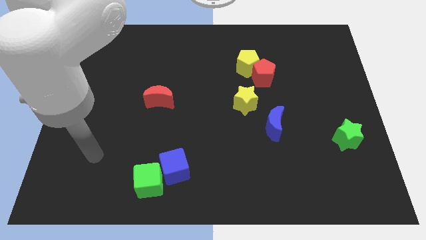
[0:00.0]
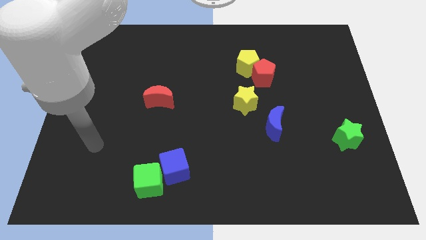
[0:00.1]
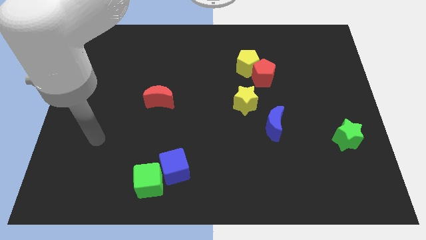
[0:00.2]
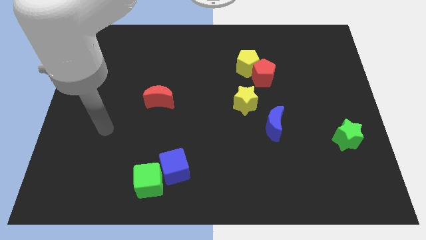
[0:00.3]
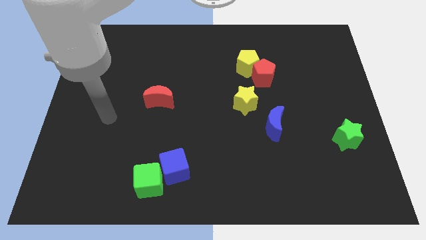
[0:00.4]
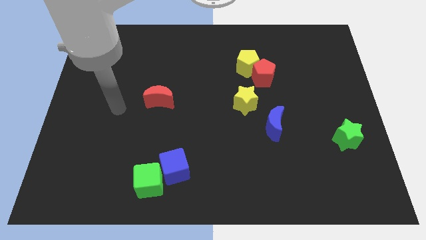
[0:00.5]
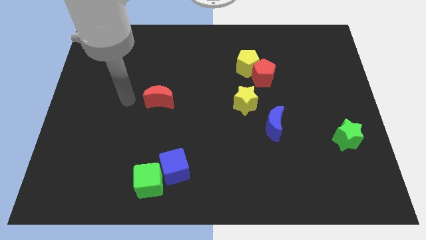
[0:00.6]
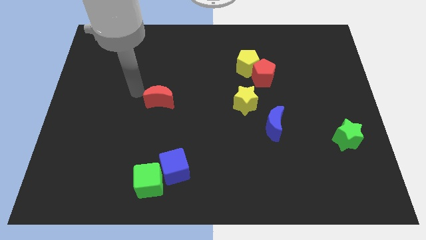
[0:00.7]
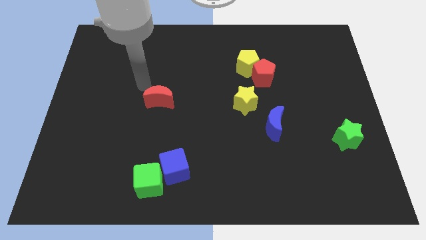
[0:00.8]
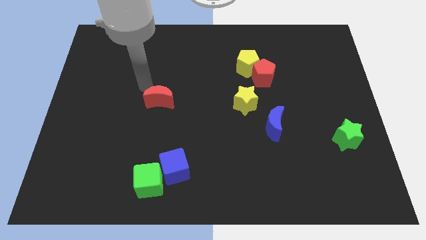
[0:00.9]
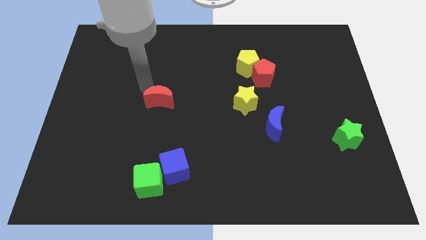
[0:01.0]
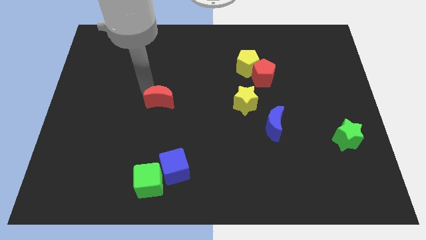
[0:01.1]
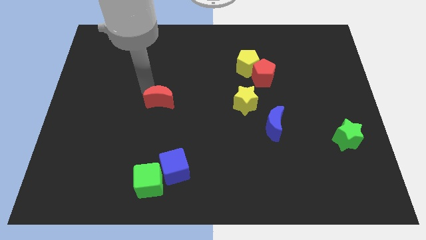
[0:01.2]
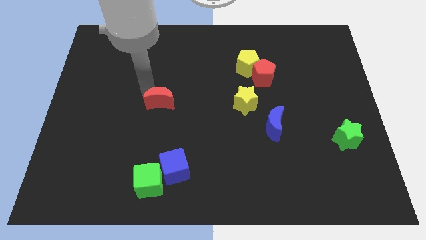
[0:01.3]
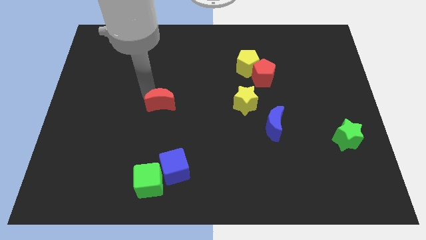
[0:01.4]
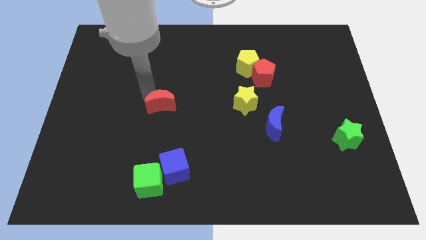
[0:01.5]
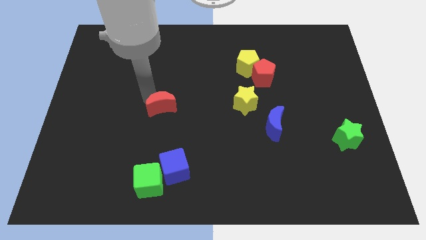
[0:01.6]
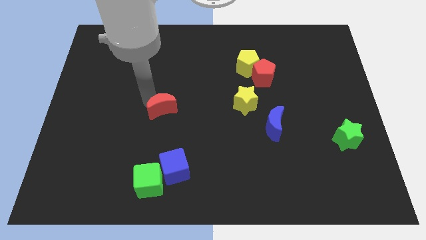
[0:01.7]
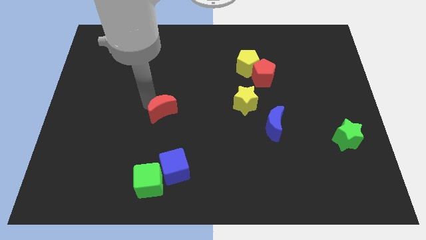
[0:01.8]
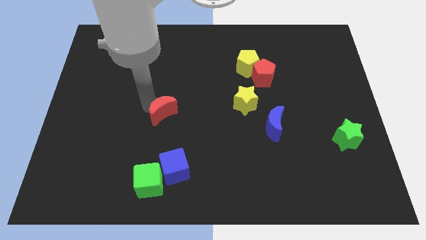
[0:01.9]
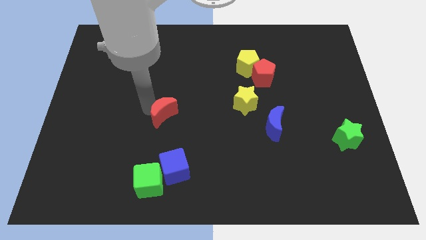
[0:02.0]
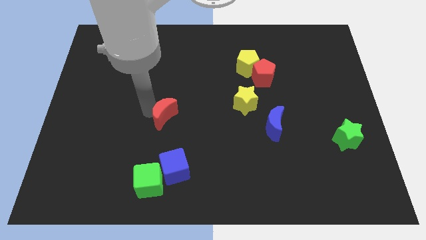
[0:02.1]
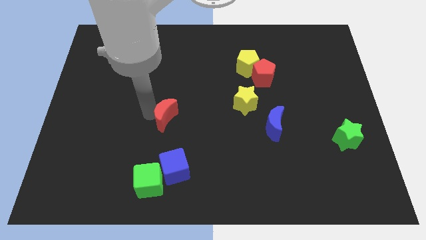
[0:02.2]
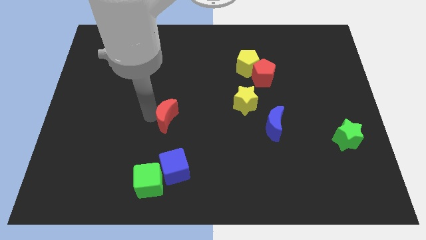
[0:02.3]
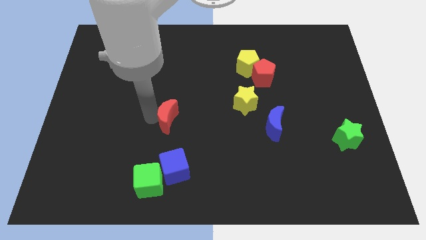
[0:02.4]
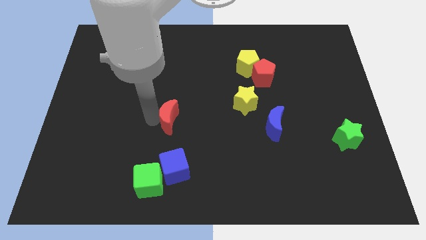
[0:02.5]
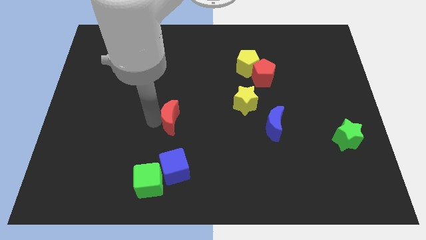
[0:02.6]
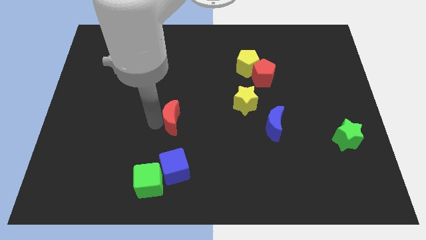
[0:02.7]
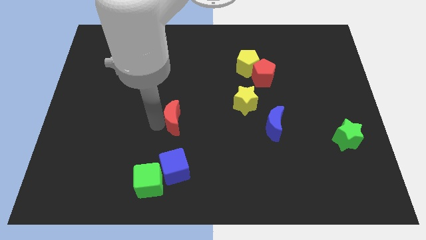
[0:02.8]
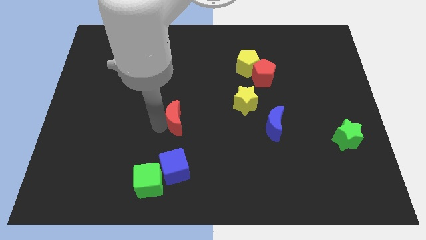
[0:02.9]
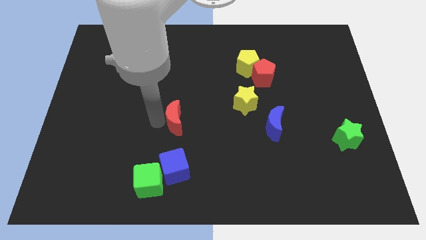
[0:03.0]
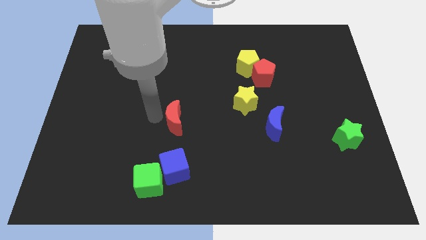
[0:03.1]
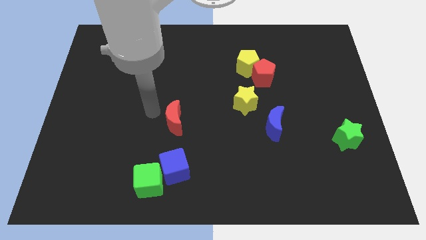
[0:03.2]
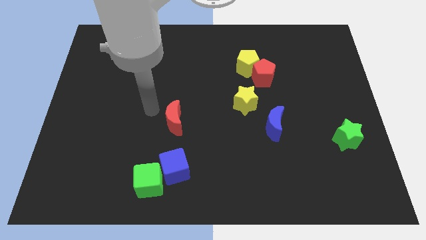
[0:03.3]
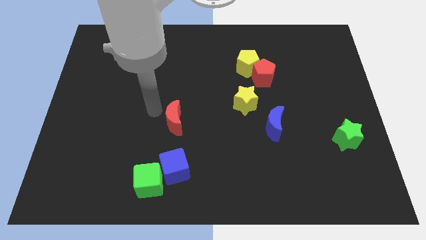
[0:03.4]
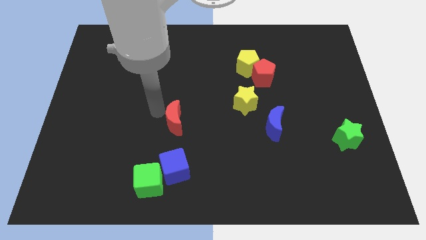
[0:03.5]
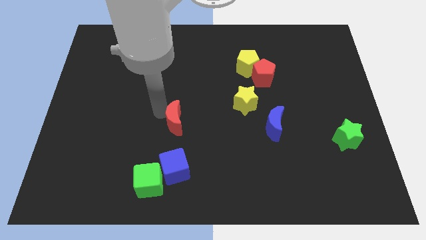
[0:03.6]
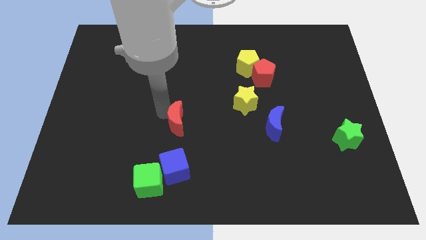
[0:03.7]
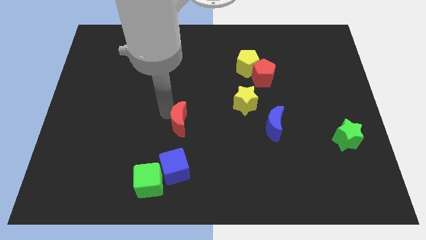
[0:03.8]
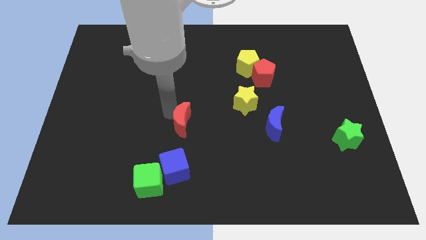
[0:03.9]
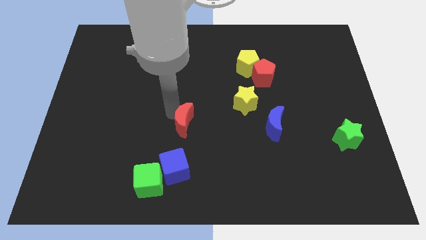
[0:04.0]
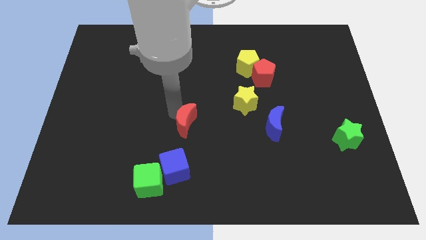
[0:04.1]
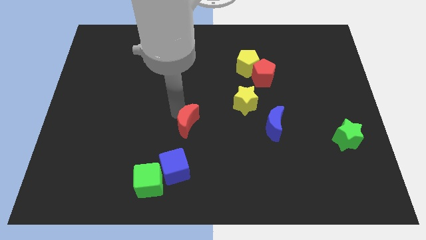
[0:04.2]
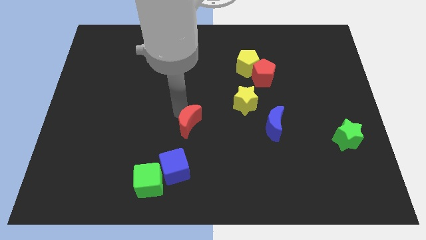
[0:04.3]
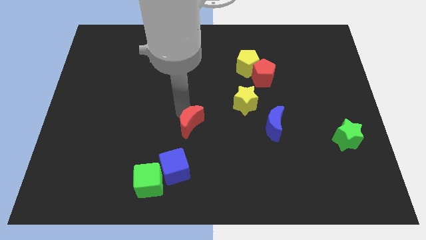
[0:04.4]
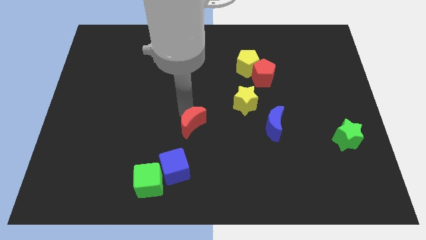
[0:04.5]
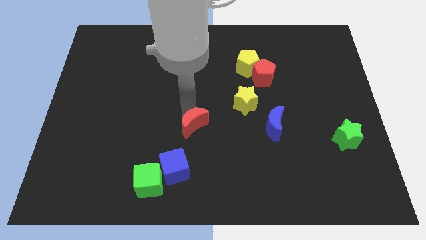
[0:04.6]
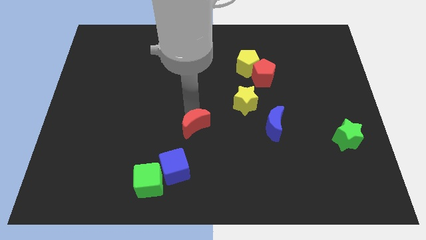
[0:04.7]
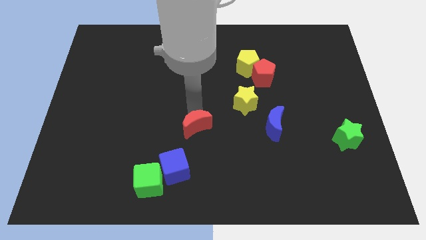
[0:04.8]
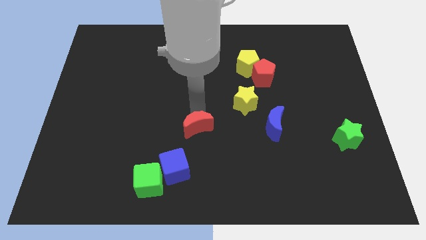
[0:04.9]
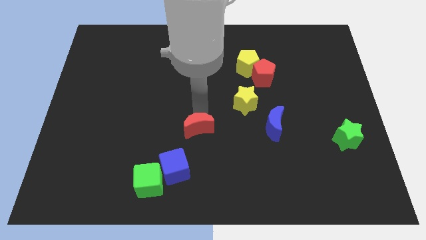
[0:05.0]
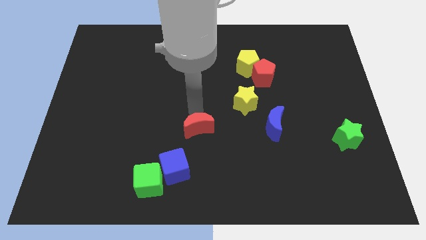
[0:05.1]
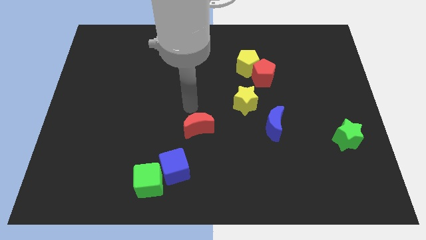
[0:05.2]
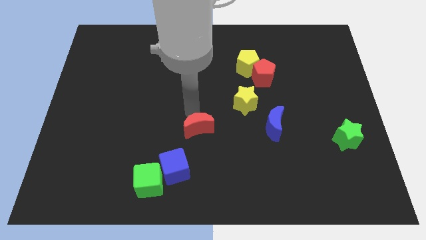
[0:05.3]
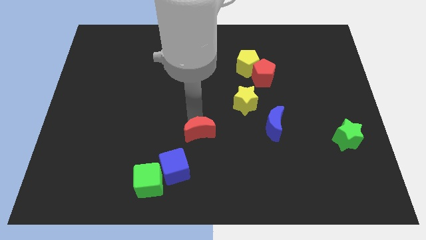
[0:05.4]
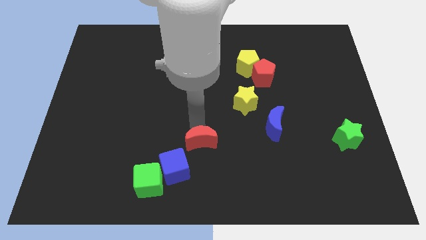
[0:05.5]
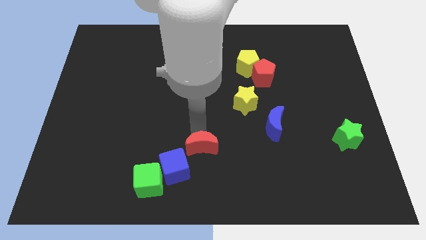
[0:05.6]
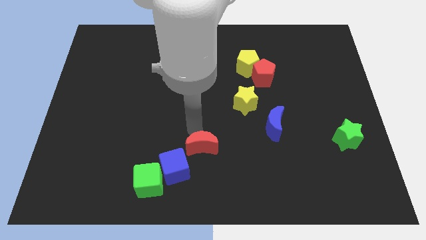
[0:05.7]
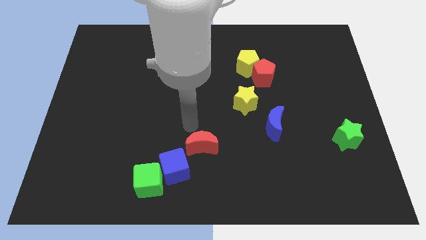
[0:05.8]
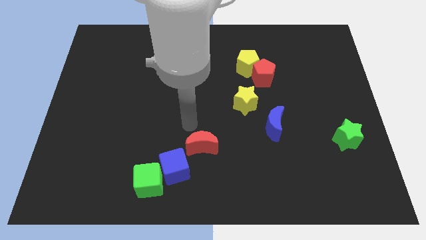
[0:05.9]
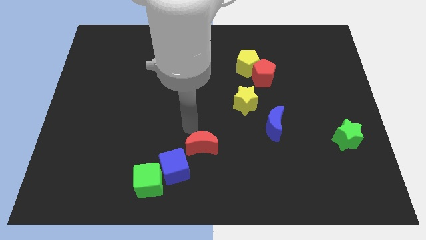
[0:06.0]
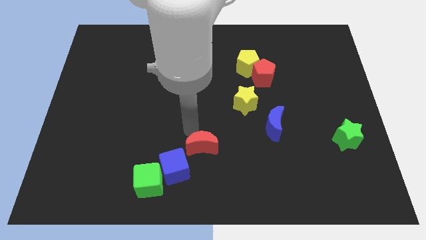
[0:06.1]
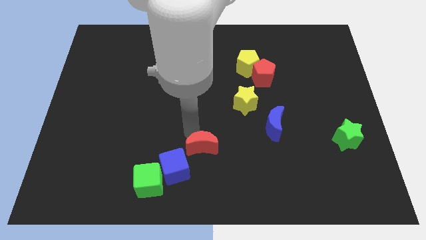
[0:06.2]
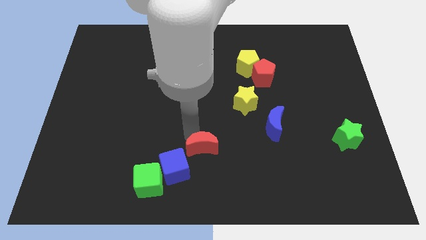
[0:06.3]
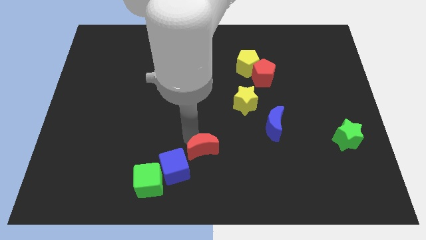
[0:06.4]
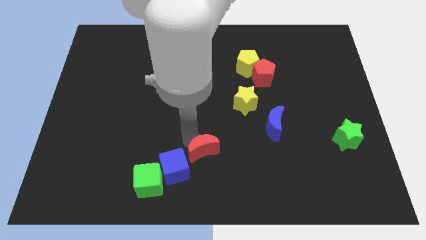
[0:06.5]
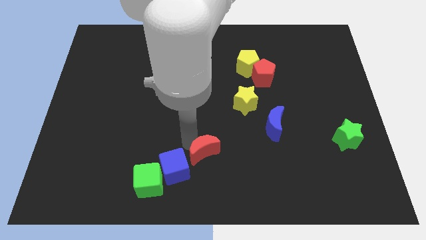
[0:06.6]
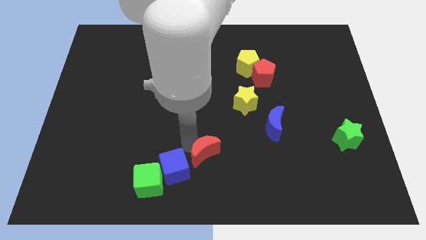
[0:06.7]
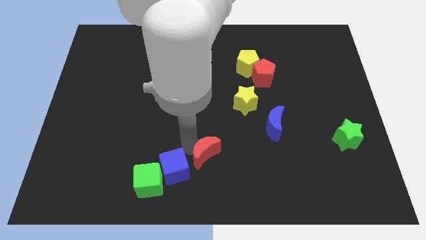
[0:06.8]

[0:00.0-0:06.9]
slide the red moon to the bottom
